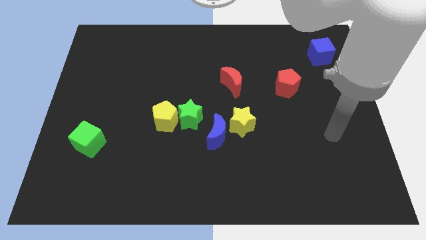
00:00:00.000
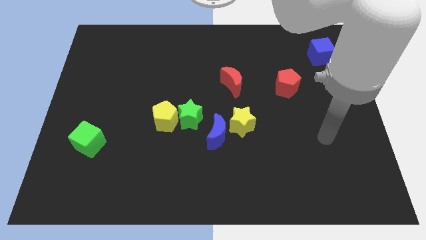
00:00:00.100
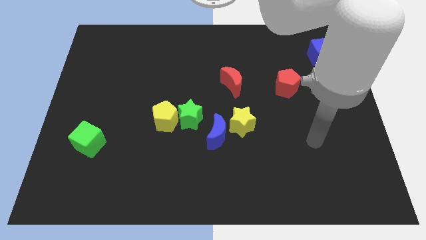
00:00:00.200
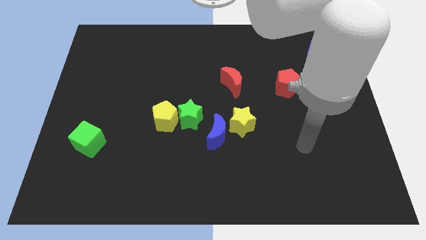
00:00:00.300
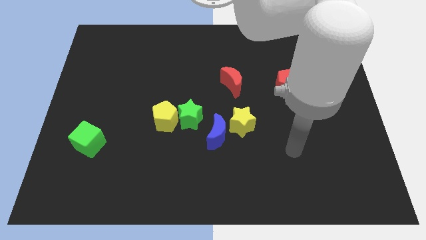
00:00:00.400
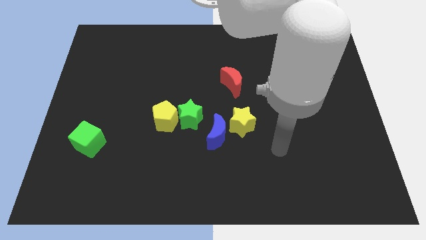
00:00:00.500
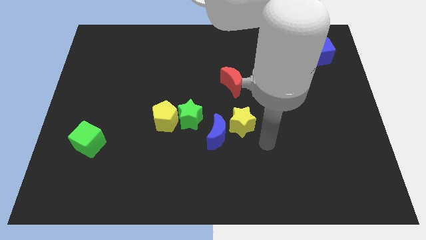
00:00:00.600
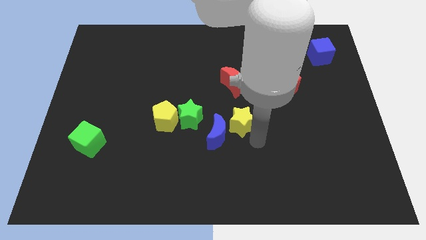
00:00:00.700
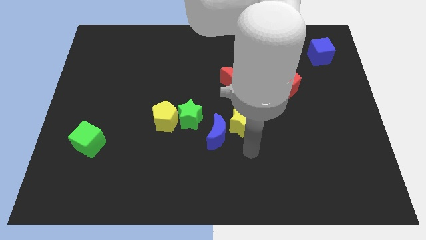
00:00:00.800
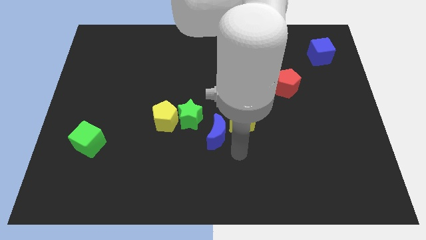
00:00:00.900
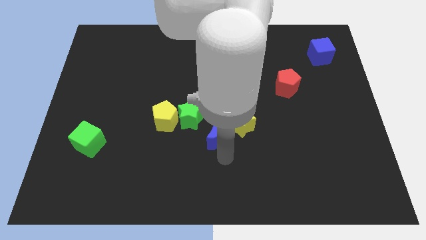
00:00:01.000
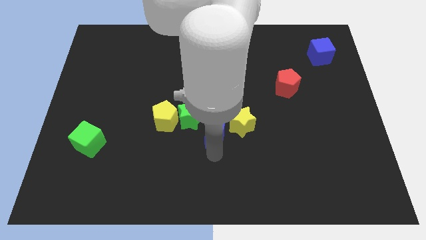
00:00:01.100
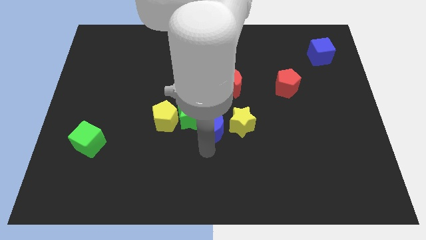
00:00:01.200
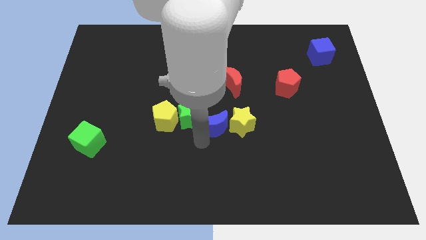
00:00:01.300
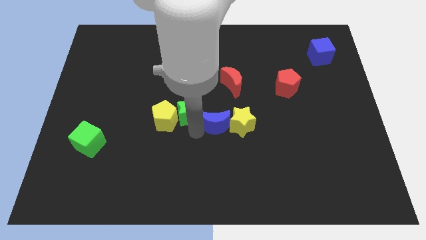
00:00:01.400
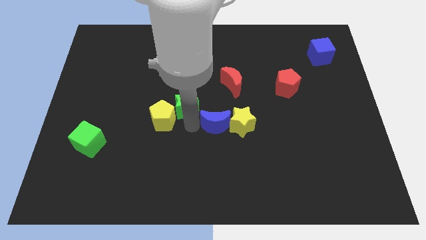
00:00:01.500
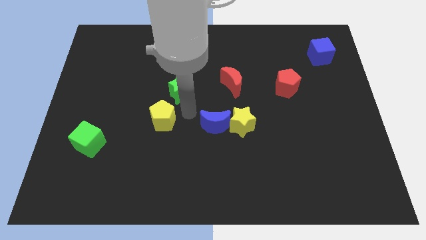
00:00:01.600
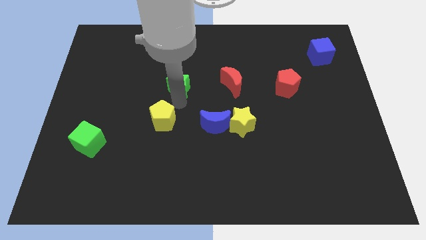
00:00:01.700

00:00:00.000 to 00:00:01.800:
pull the yellow pentagon apart from the green star

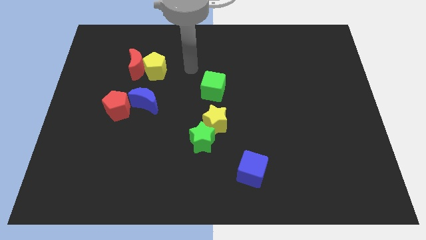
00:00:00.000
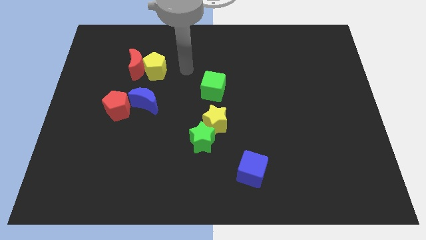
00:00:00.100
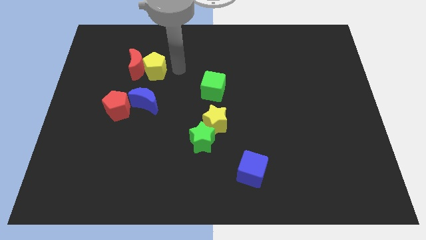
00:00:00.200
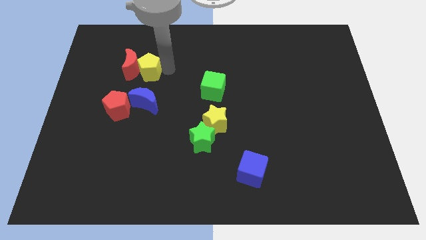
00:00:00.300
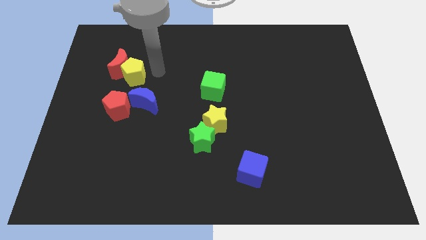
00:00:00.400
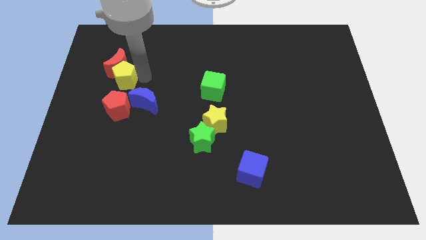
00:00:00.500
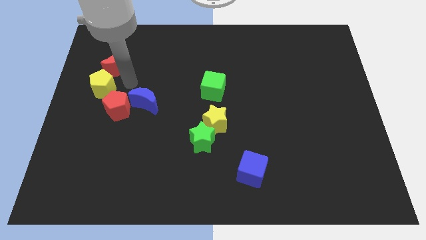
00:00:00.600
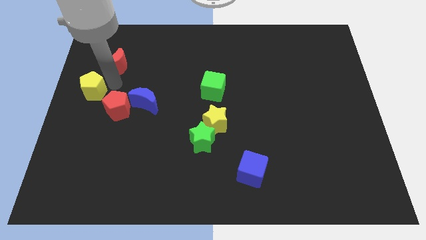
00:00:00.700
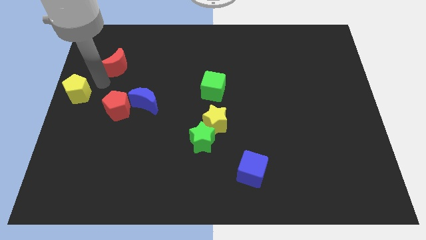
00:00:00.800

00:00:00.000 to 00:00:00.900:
separate the red moon from the yellow pentagon

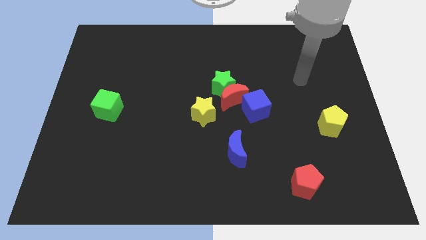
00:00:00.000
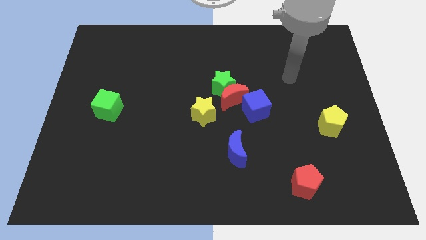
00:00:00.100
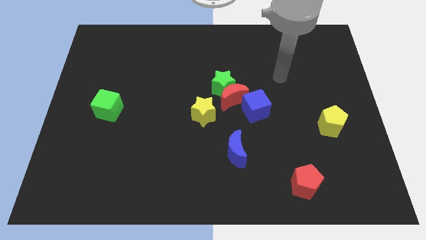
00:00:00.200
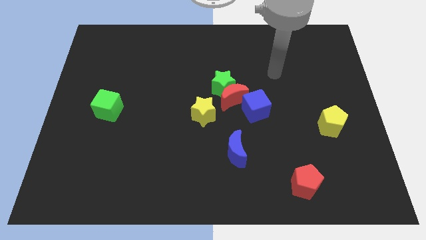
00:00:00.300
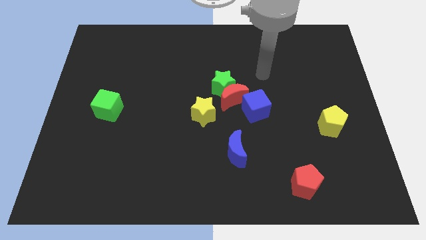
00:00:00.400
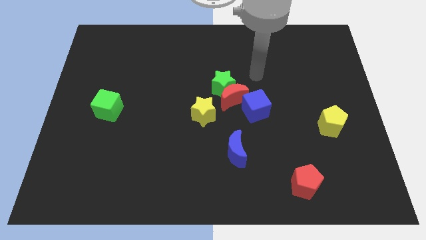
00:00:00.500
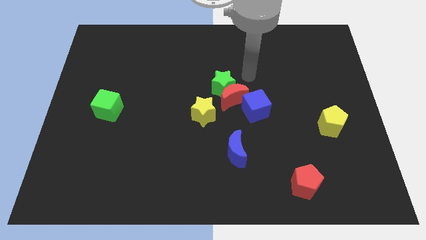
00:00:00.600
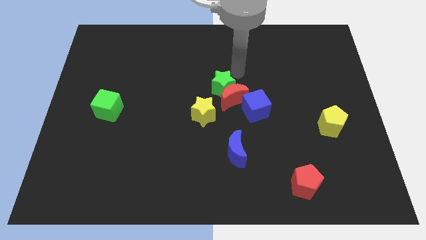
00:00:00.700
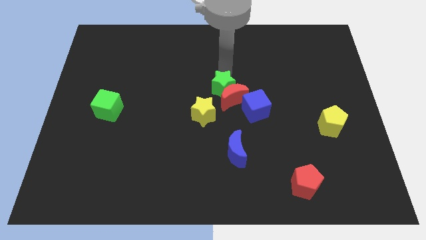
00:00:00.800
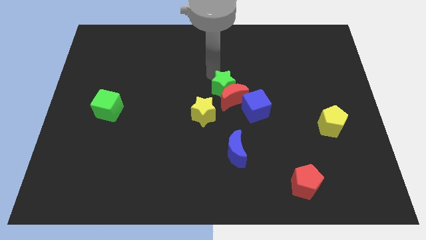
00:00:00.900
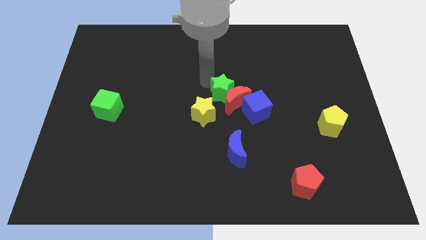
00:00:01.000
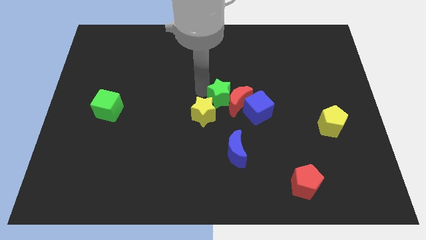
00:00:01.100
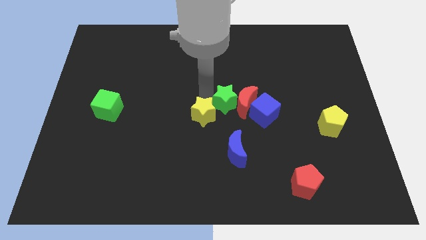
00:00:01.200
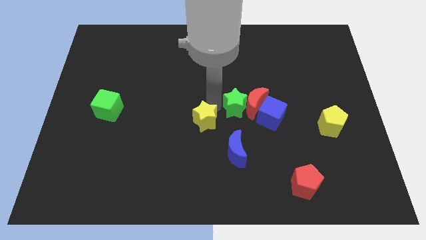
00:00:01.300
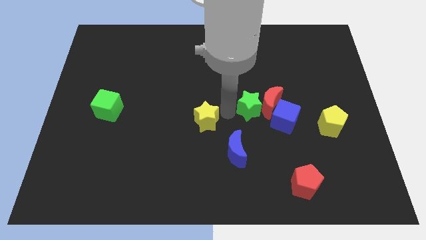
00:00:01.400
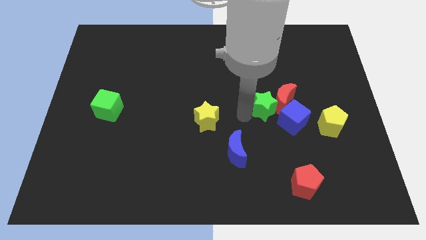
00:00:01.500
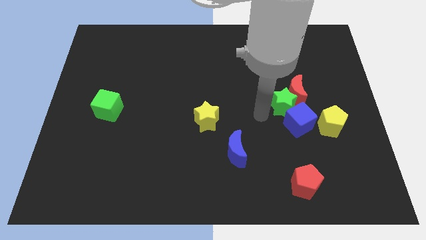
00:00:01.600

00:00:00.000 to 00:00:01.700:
pull the red moon apart from the green star, blue cube, and yellow star

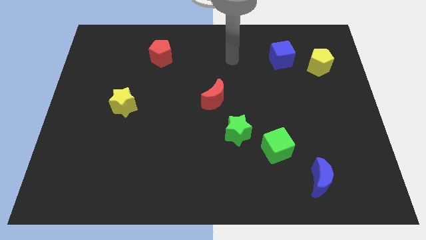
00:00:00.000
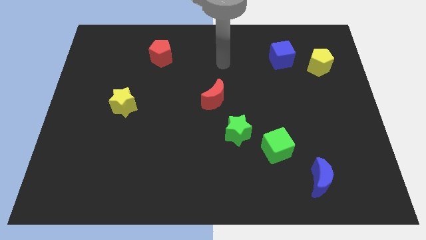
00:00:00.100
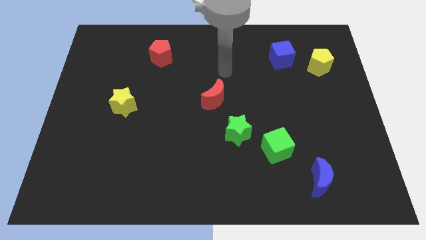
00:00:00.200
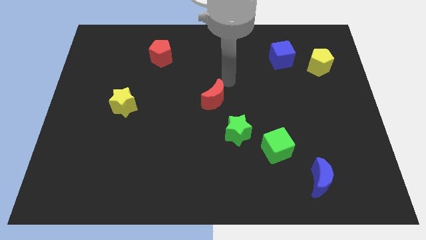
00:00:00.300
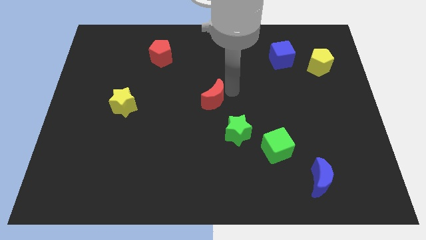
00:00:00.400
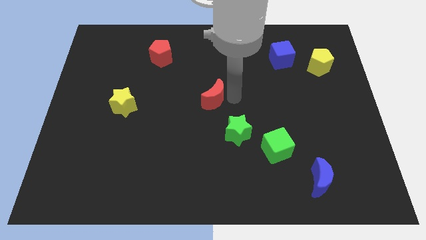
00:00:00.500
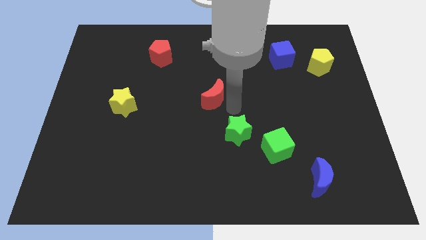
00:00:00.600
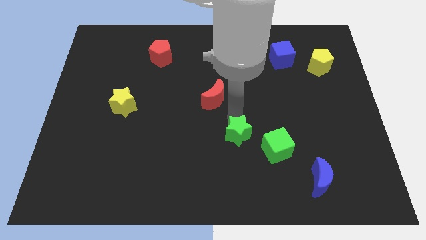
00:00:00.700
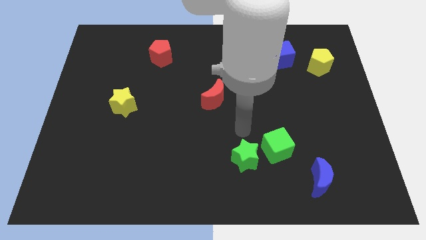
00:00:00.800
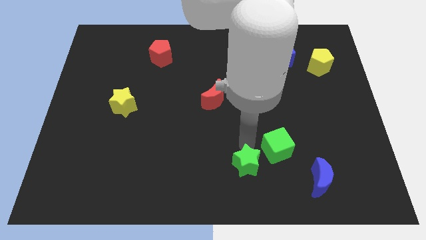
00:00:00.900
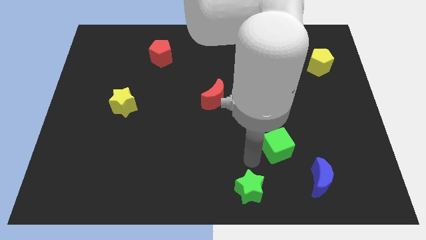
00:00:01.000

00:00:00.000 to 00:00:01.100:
move the green cube away from the green star

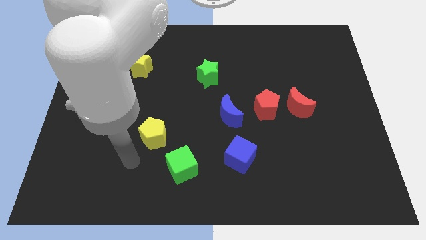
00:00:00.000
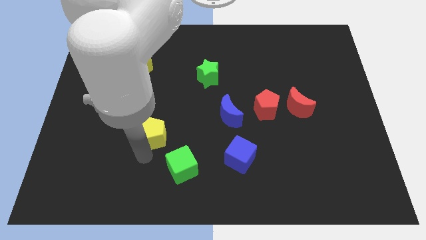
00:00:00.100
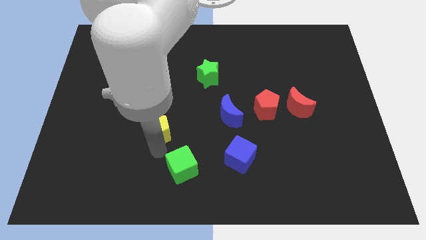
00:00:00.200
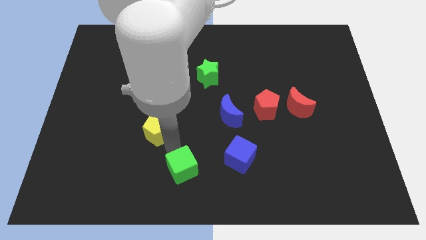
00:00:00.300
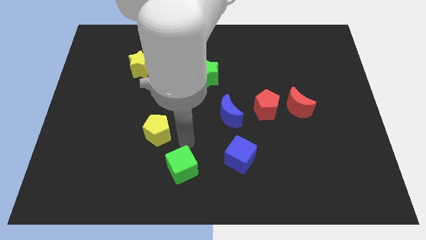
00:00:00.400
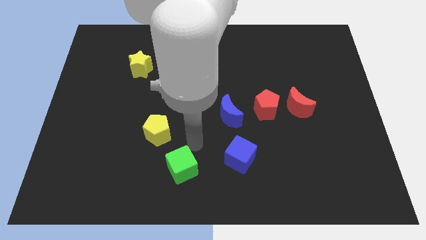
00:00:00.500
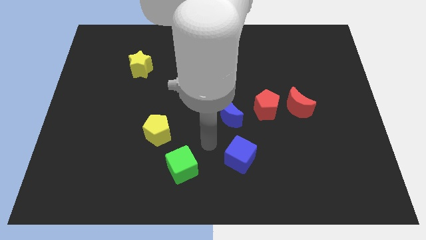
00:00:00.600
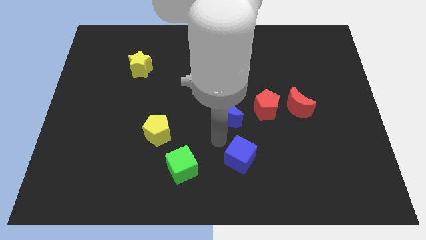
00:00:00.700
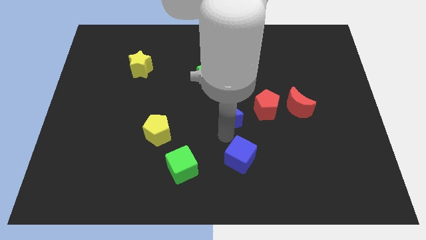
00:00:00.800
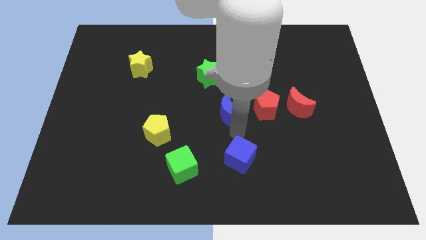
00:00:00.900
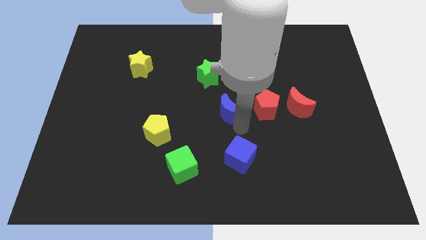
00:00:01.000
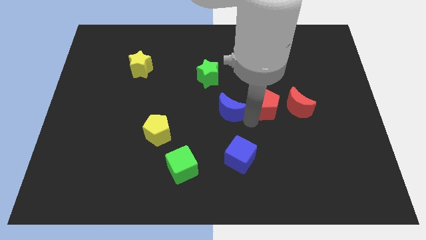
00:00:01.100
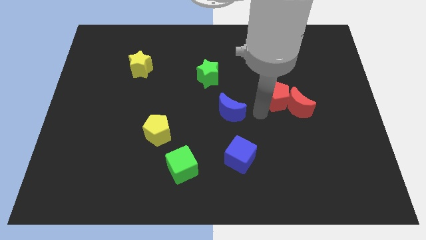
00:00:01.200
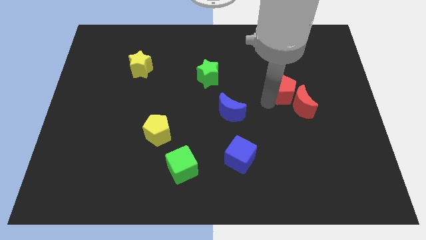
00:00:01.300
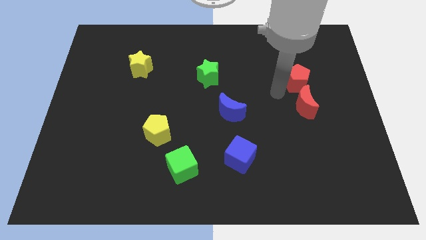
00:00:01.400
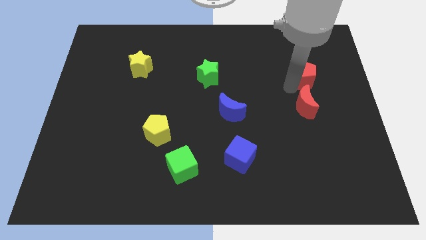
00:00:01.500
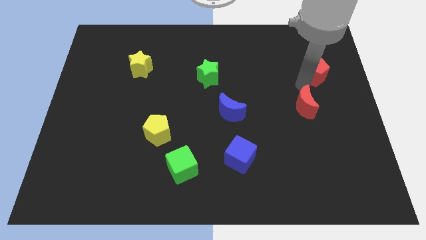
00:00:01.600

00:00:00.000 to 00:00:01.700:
pull the red moon apart from the red pentagon

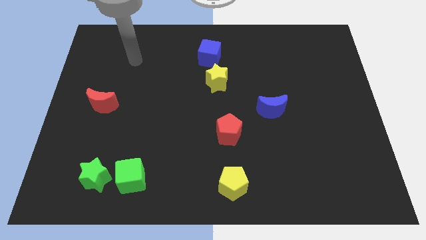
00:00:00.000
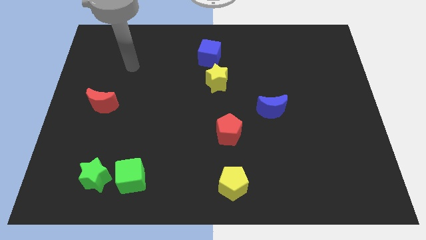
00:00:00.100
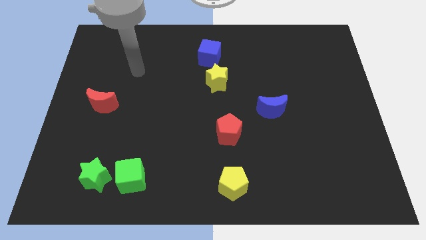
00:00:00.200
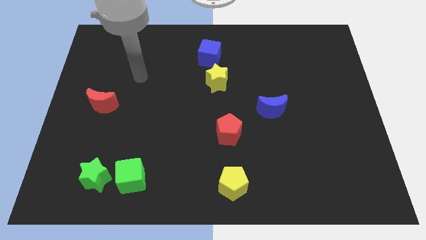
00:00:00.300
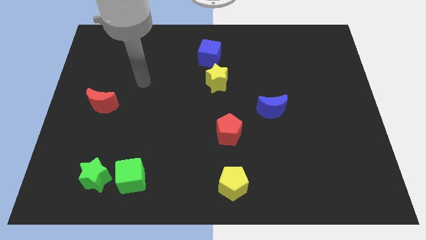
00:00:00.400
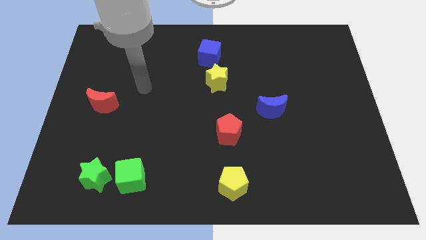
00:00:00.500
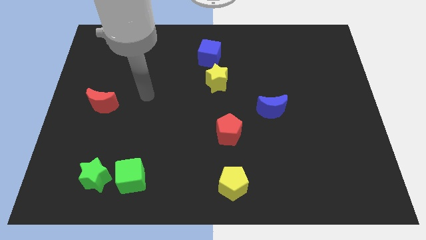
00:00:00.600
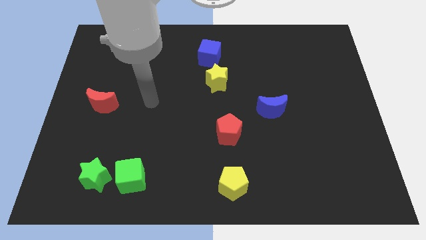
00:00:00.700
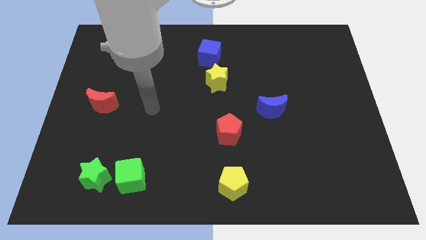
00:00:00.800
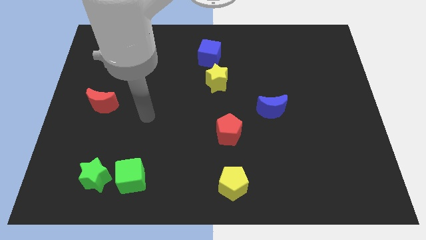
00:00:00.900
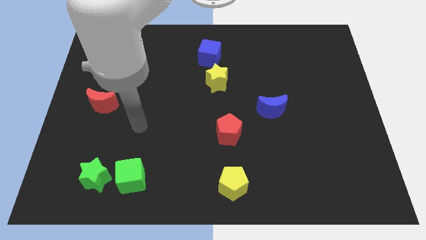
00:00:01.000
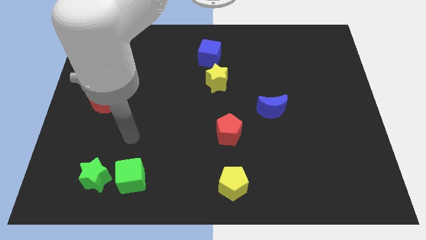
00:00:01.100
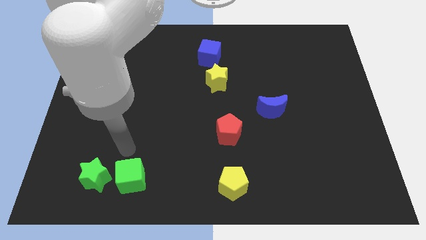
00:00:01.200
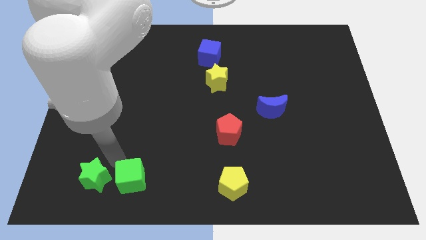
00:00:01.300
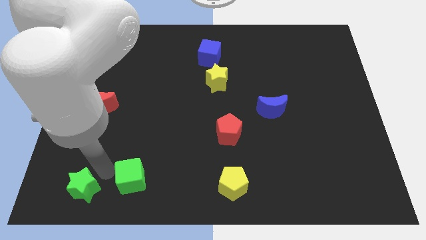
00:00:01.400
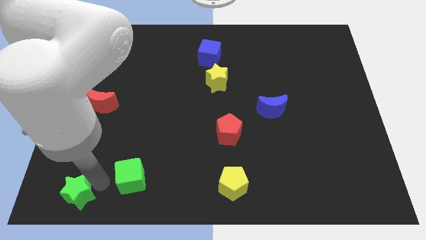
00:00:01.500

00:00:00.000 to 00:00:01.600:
pull the green cube apart from the green star

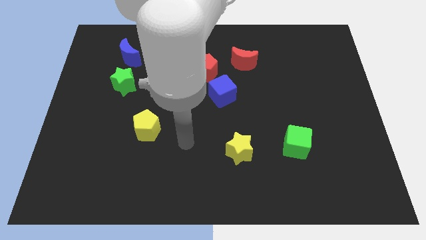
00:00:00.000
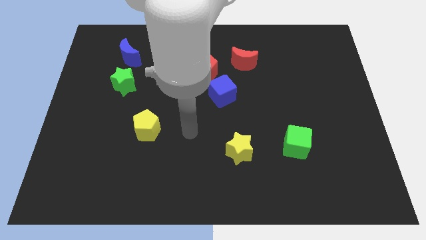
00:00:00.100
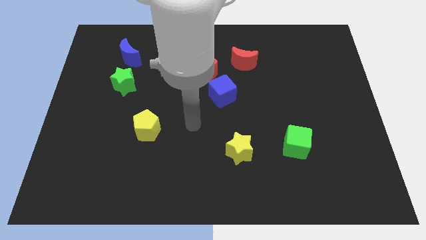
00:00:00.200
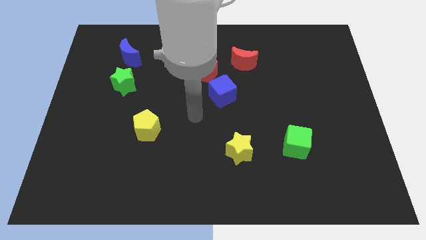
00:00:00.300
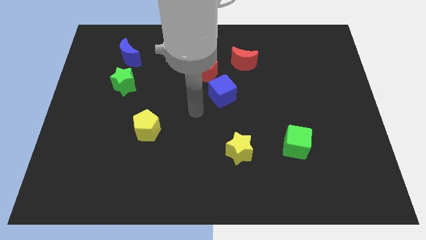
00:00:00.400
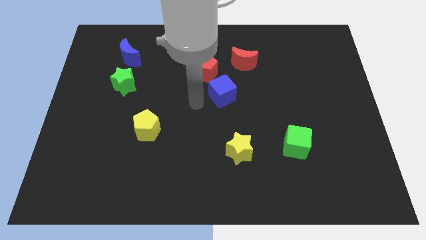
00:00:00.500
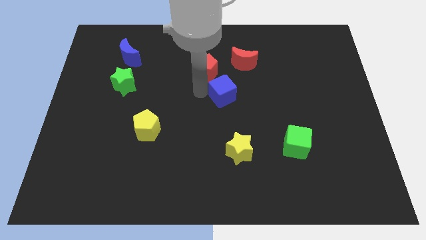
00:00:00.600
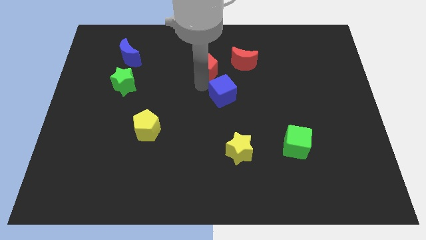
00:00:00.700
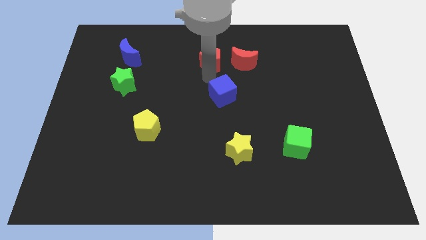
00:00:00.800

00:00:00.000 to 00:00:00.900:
pull the blue cube apart from the red pentagon
